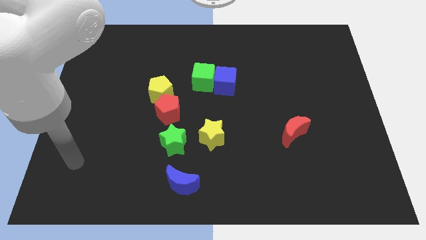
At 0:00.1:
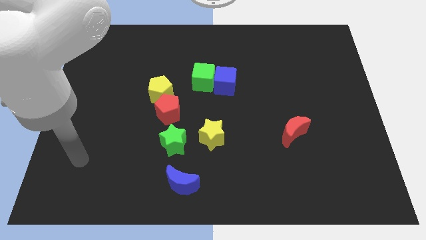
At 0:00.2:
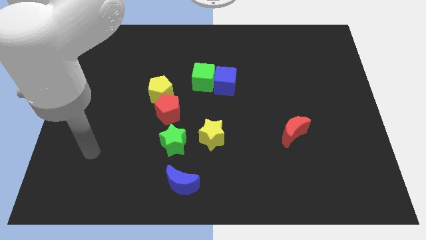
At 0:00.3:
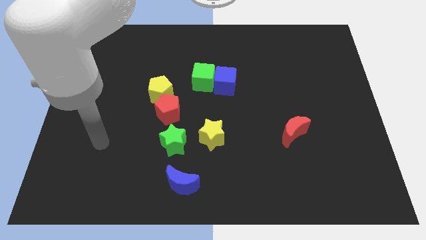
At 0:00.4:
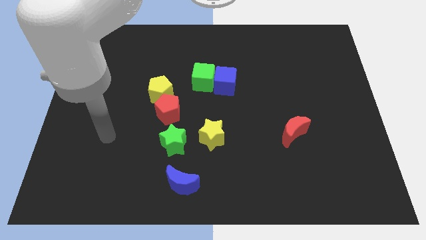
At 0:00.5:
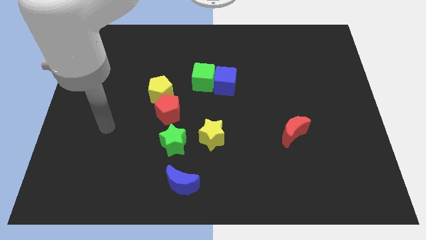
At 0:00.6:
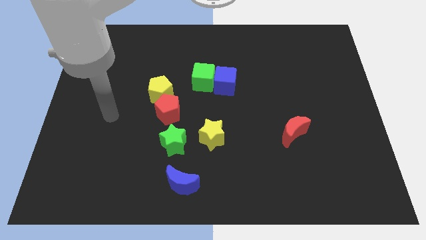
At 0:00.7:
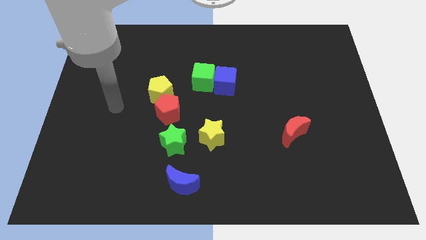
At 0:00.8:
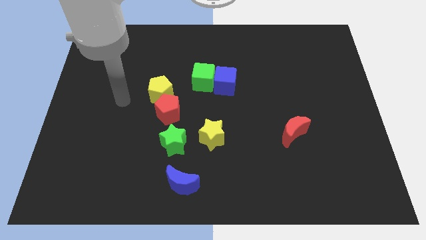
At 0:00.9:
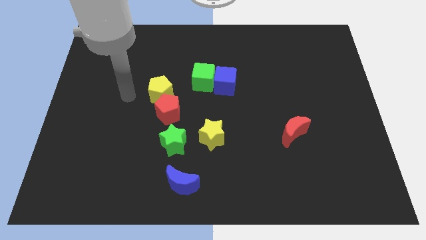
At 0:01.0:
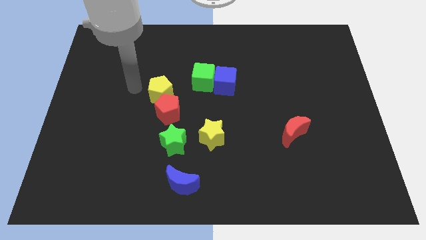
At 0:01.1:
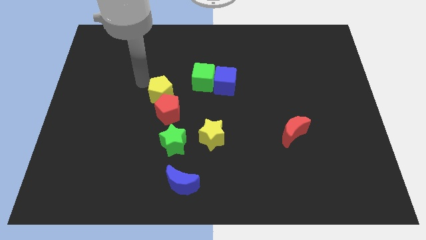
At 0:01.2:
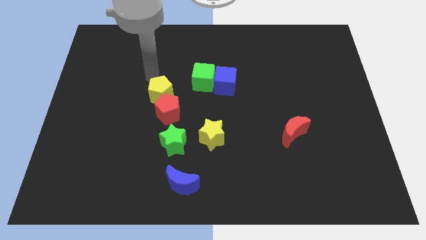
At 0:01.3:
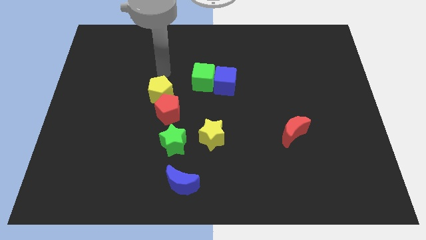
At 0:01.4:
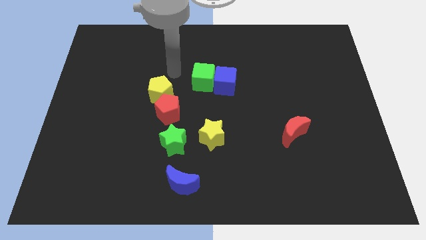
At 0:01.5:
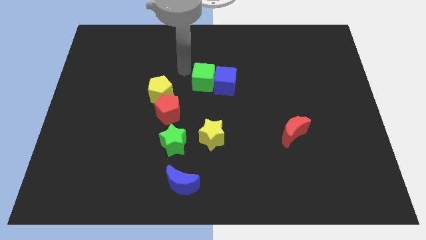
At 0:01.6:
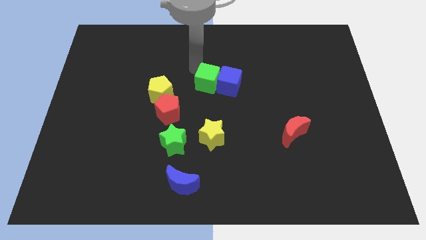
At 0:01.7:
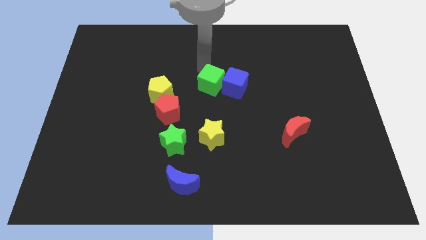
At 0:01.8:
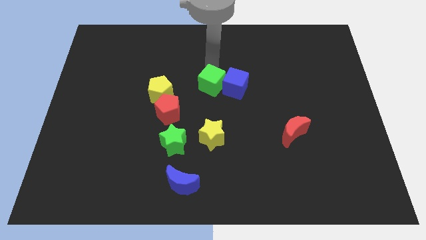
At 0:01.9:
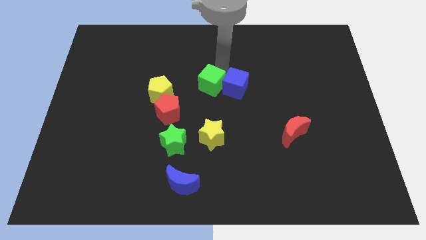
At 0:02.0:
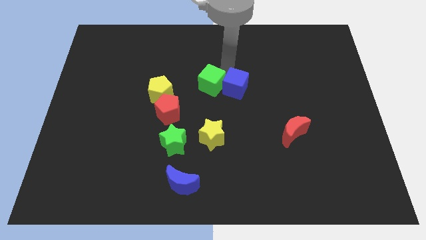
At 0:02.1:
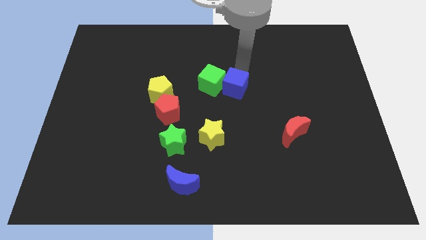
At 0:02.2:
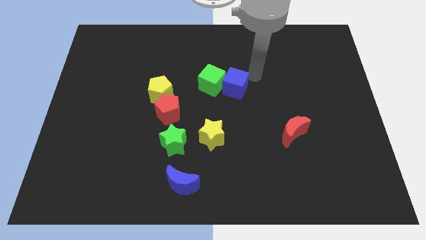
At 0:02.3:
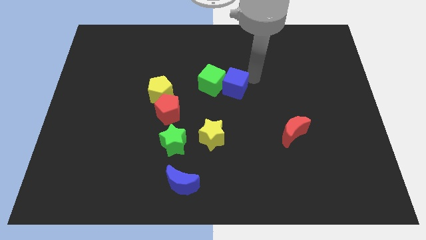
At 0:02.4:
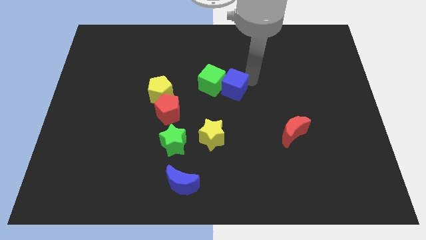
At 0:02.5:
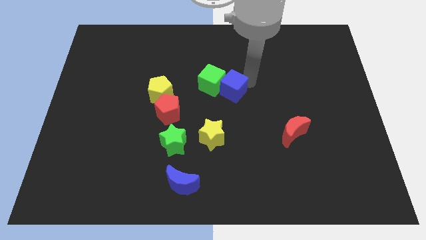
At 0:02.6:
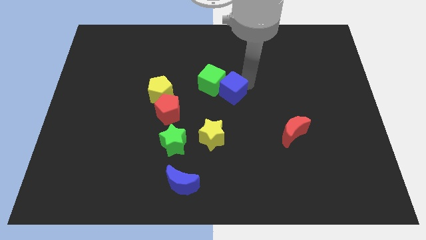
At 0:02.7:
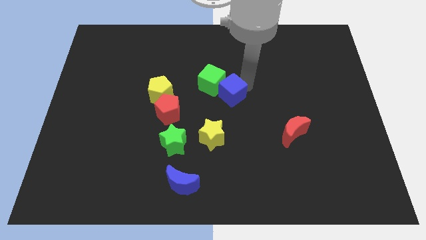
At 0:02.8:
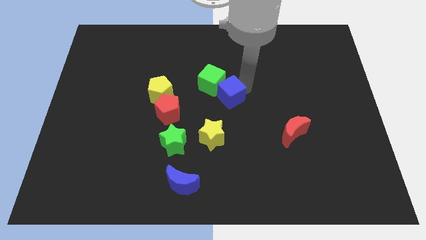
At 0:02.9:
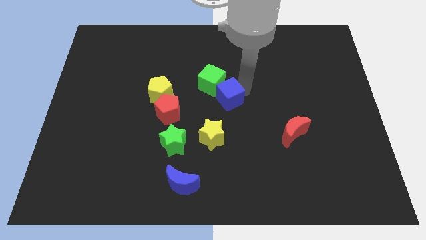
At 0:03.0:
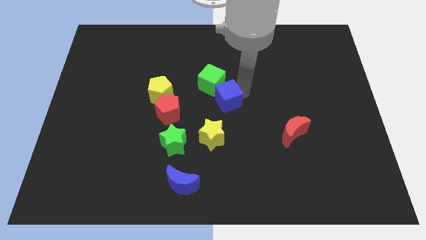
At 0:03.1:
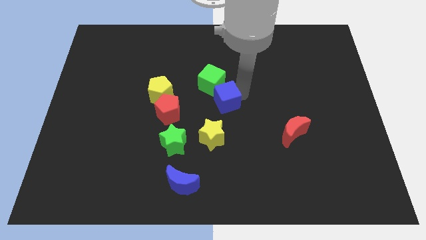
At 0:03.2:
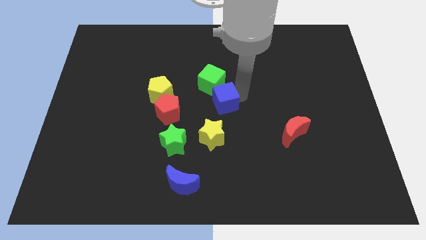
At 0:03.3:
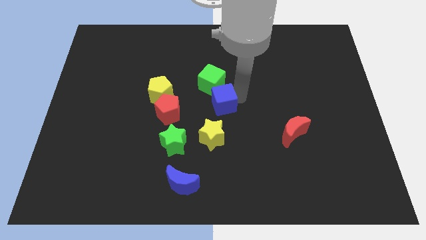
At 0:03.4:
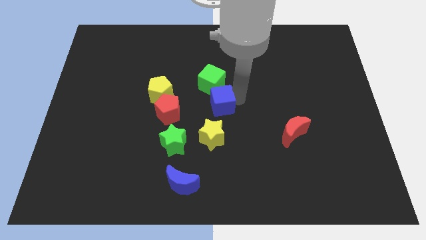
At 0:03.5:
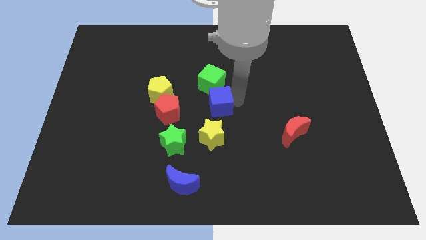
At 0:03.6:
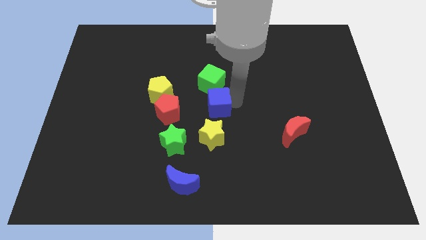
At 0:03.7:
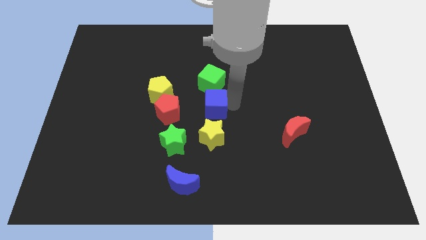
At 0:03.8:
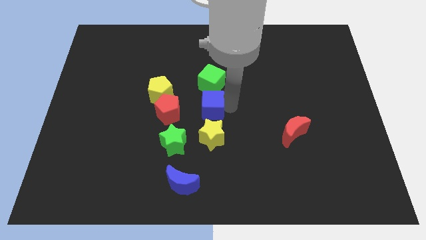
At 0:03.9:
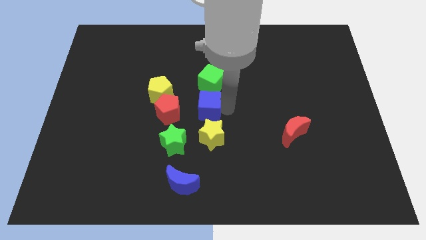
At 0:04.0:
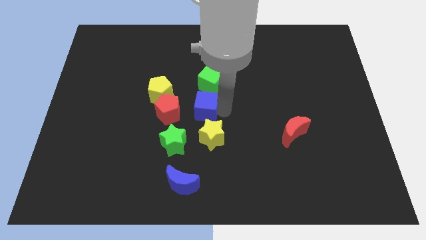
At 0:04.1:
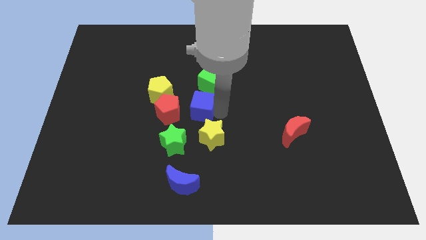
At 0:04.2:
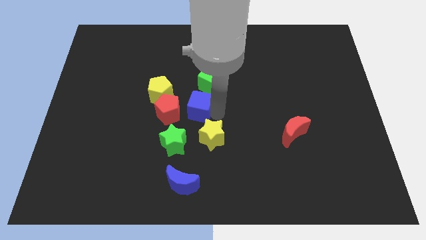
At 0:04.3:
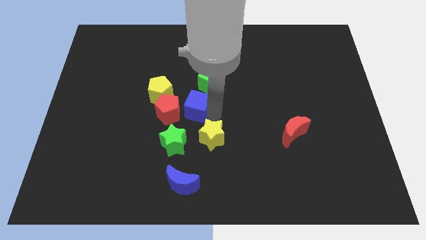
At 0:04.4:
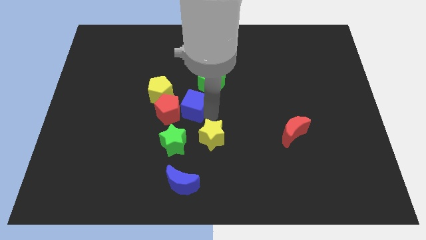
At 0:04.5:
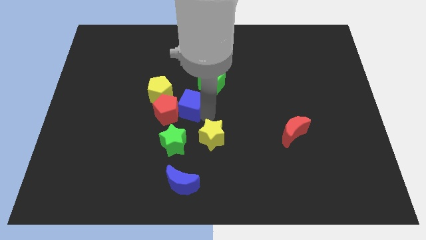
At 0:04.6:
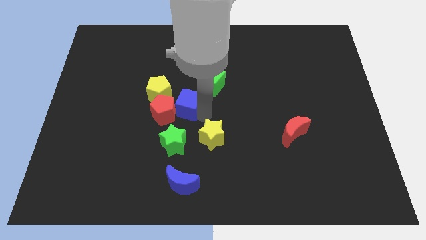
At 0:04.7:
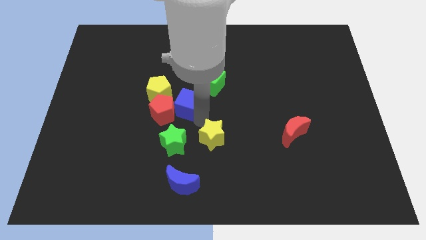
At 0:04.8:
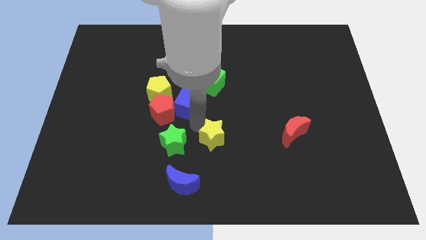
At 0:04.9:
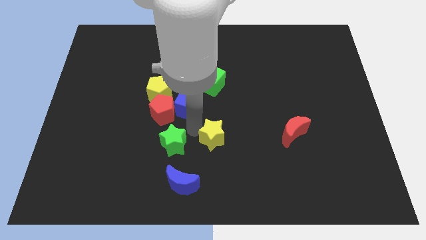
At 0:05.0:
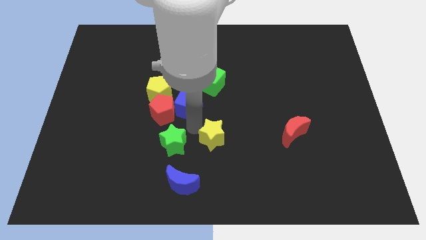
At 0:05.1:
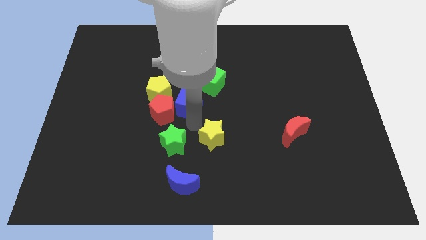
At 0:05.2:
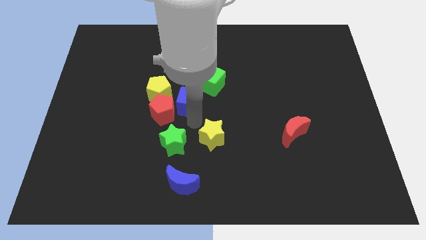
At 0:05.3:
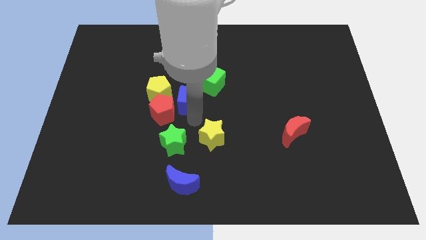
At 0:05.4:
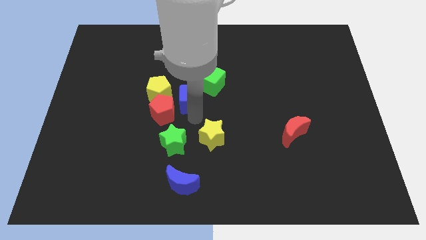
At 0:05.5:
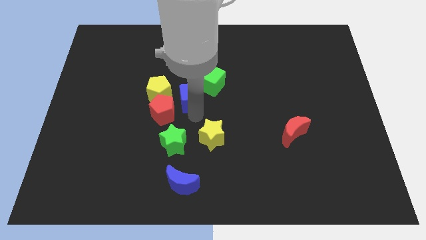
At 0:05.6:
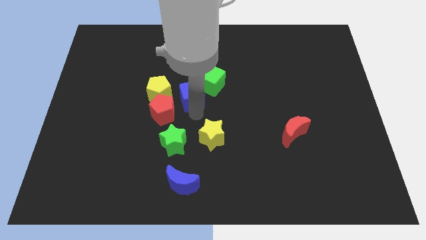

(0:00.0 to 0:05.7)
push the blue cube just left of the green cube

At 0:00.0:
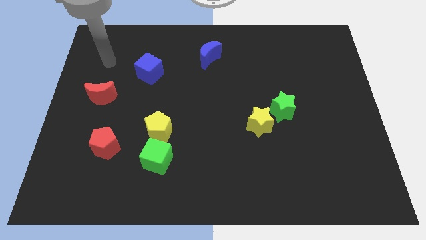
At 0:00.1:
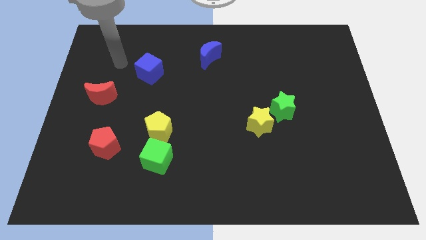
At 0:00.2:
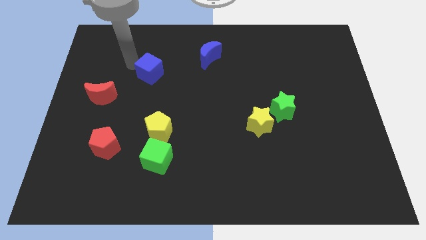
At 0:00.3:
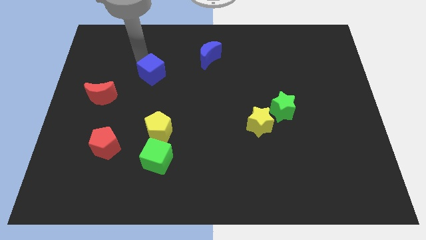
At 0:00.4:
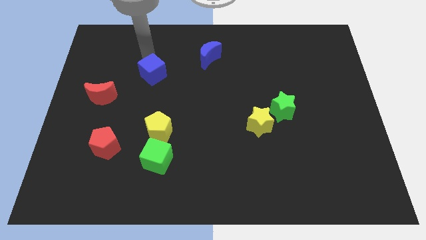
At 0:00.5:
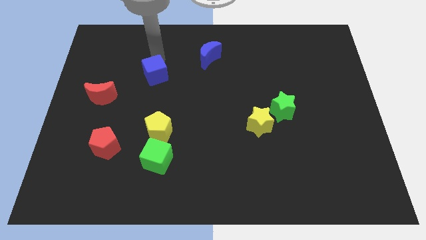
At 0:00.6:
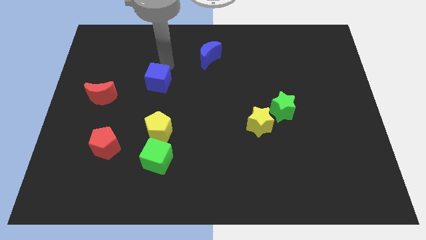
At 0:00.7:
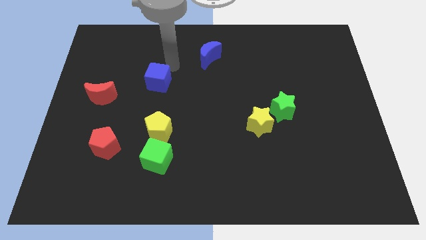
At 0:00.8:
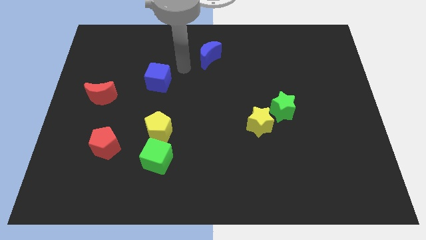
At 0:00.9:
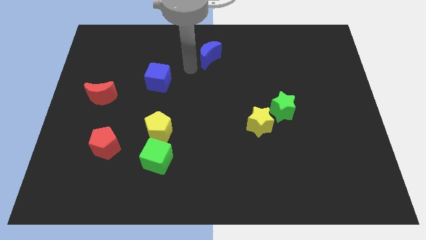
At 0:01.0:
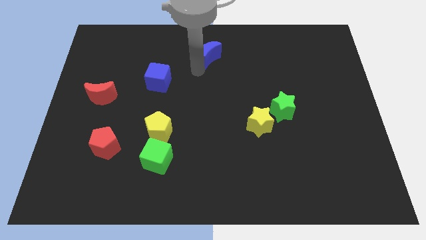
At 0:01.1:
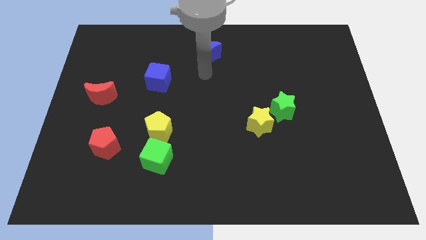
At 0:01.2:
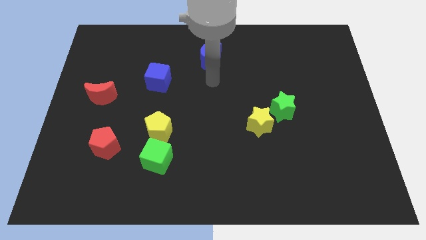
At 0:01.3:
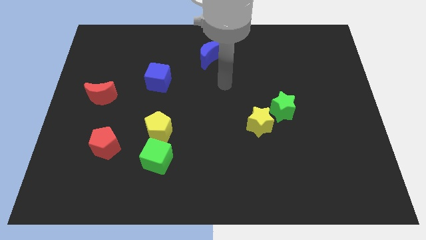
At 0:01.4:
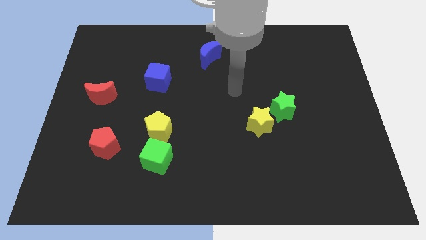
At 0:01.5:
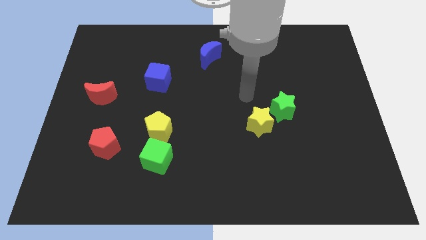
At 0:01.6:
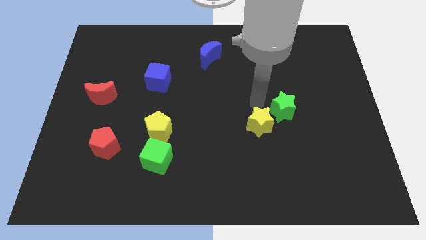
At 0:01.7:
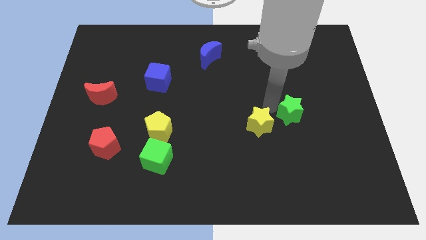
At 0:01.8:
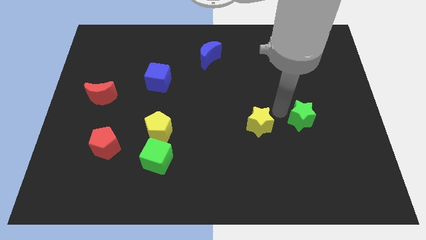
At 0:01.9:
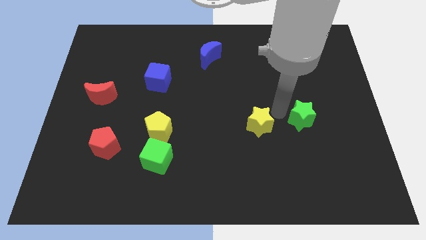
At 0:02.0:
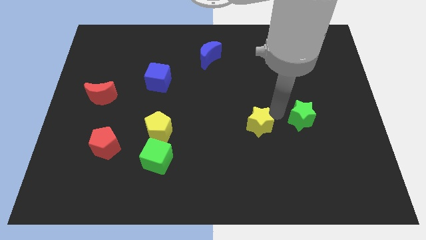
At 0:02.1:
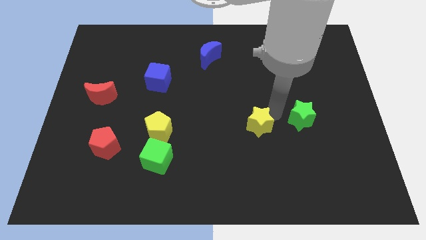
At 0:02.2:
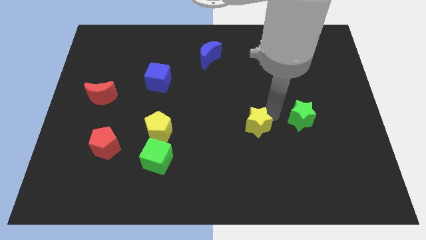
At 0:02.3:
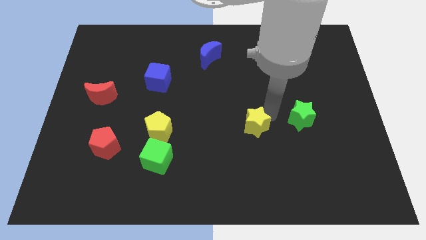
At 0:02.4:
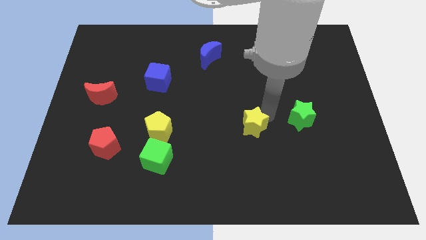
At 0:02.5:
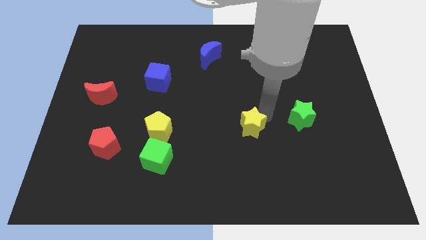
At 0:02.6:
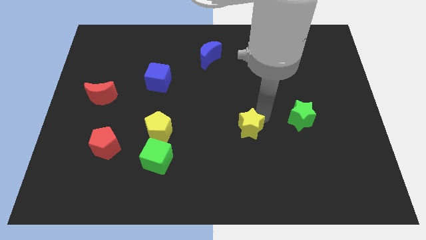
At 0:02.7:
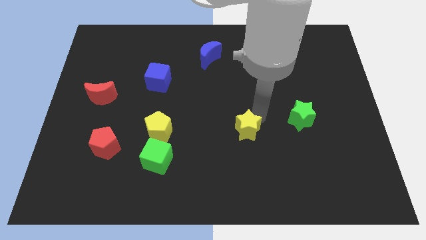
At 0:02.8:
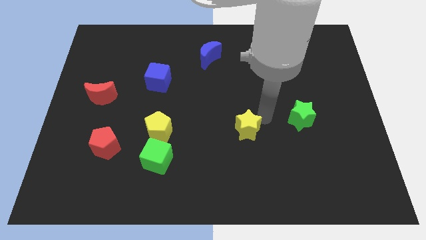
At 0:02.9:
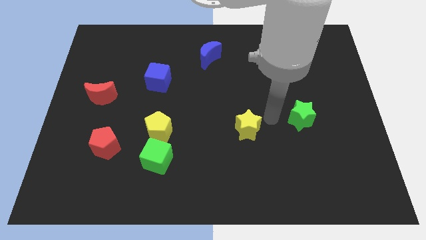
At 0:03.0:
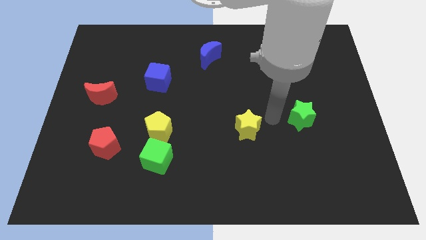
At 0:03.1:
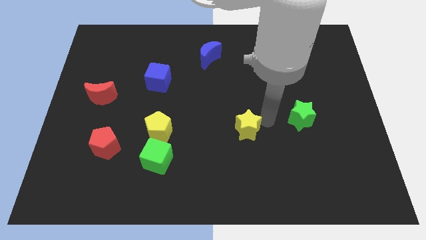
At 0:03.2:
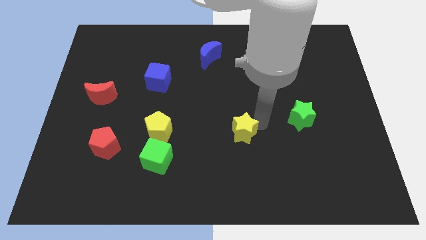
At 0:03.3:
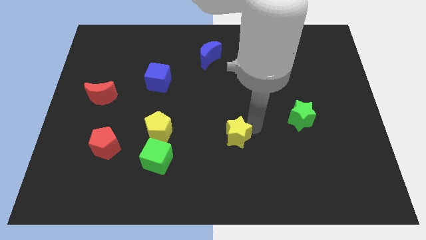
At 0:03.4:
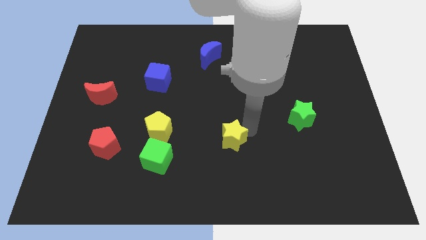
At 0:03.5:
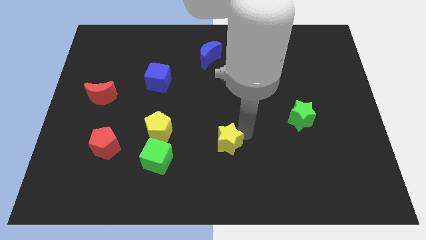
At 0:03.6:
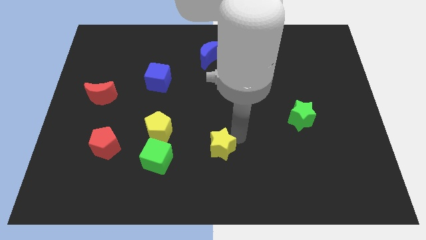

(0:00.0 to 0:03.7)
slide the yellow star to the right side of the green cube
